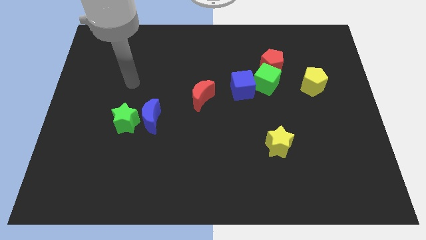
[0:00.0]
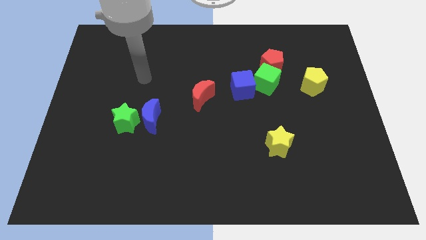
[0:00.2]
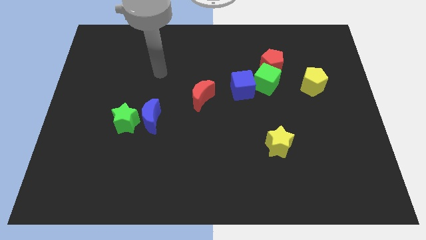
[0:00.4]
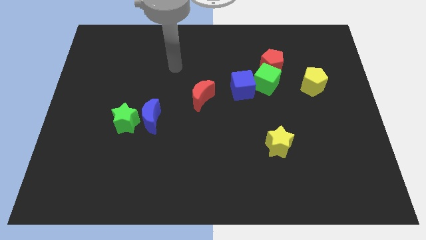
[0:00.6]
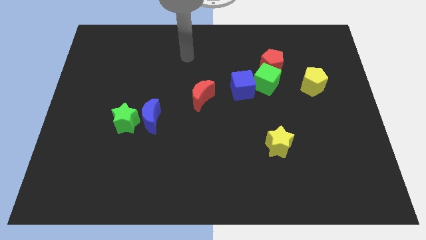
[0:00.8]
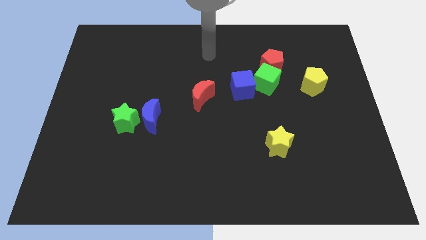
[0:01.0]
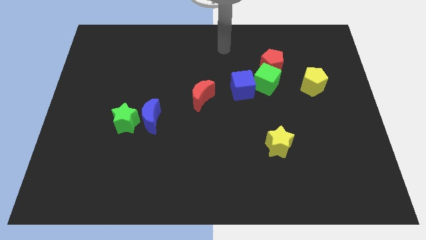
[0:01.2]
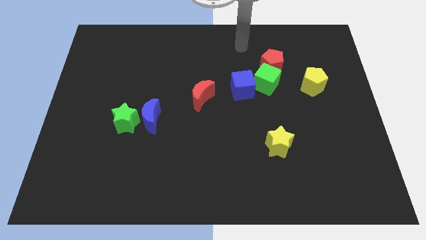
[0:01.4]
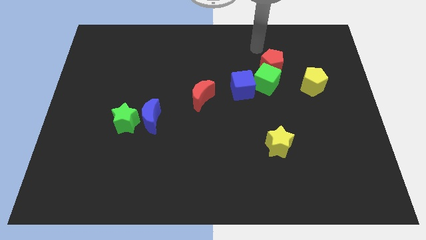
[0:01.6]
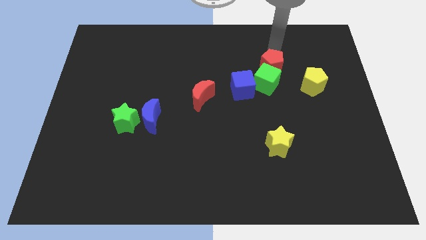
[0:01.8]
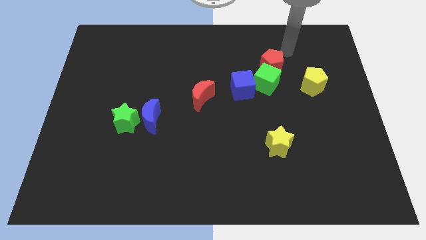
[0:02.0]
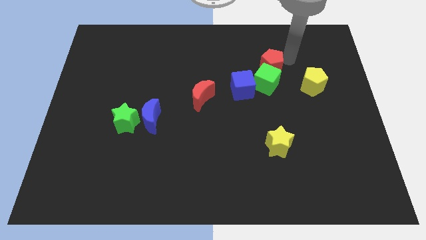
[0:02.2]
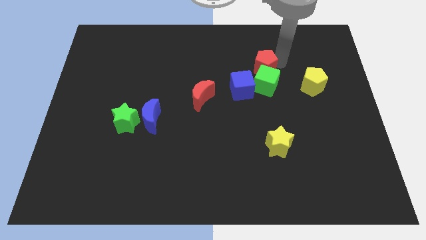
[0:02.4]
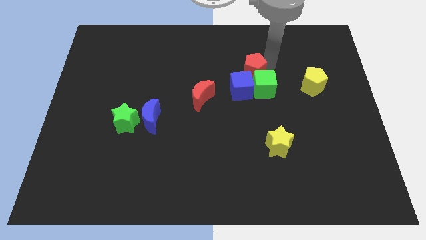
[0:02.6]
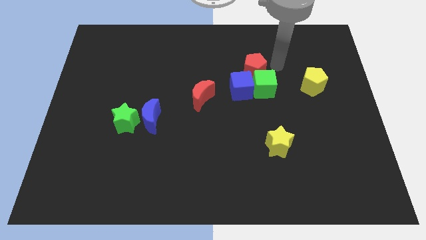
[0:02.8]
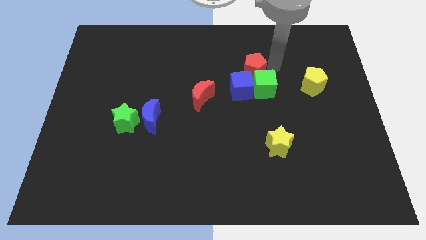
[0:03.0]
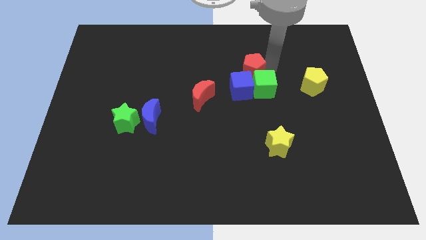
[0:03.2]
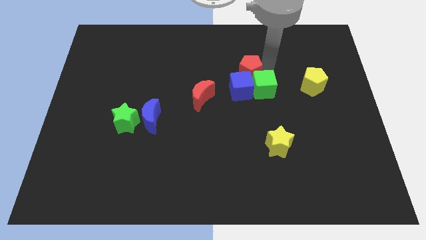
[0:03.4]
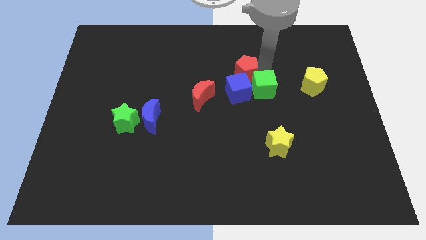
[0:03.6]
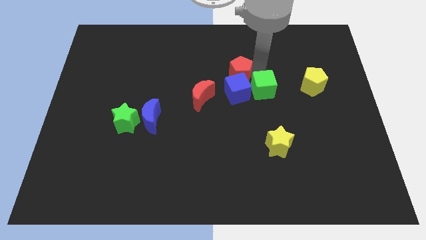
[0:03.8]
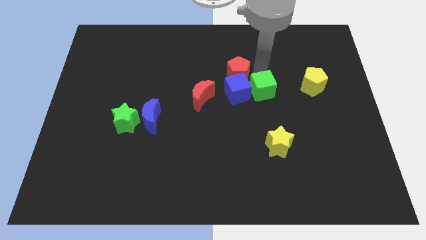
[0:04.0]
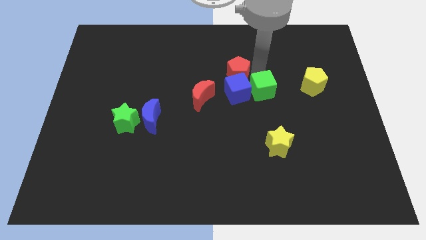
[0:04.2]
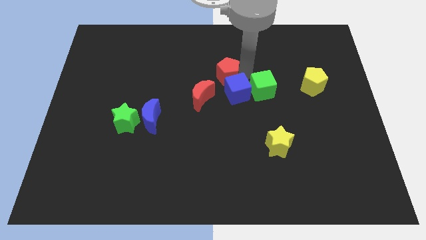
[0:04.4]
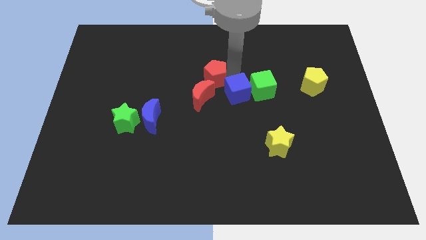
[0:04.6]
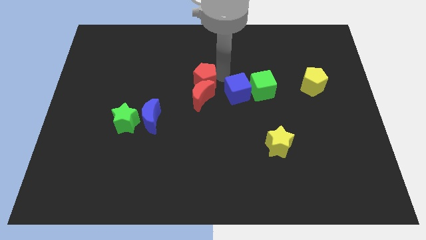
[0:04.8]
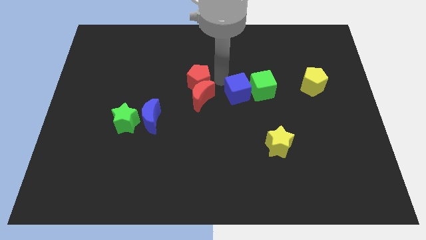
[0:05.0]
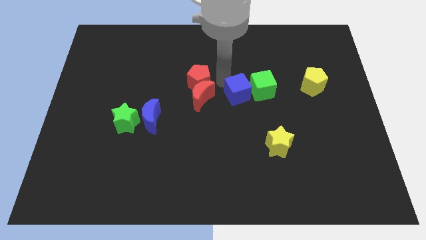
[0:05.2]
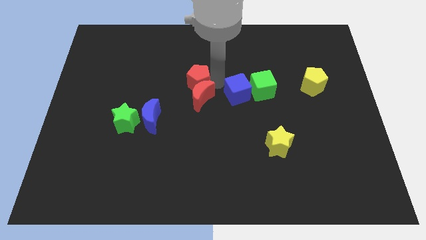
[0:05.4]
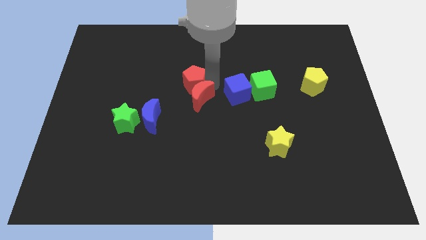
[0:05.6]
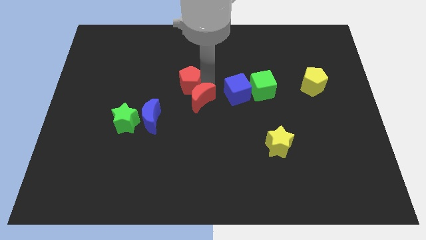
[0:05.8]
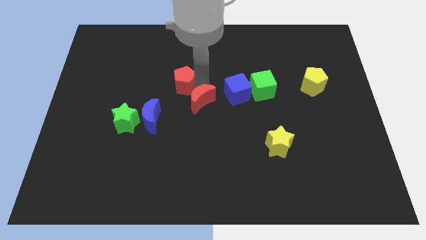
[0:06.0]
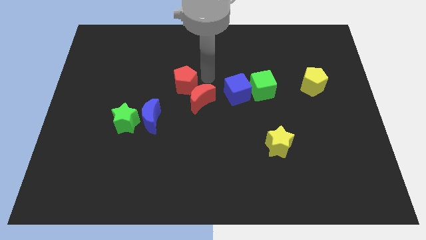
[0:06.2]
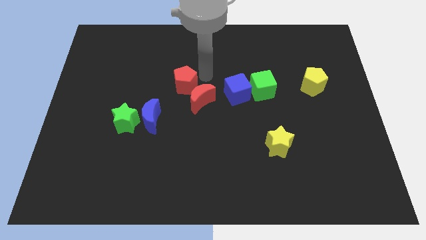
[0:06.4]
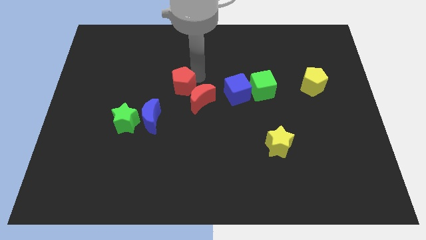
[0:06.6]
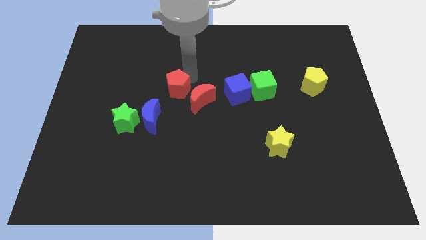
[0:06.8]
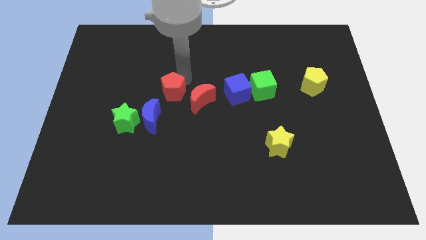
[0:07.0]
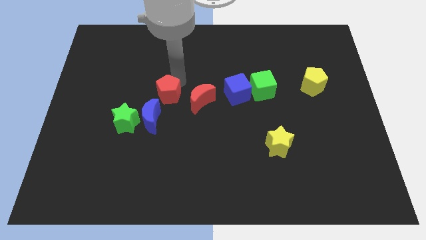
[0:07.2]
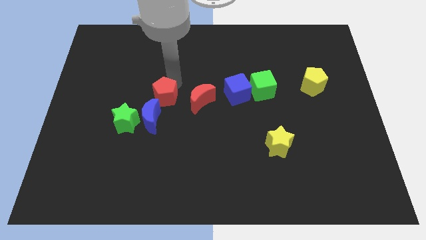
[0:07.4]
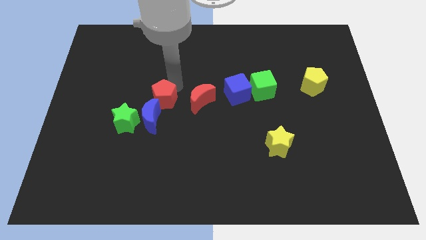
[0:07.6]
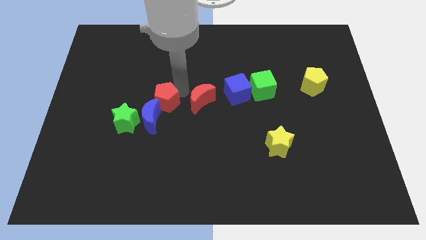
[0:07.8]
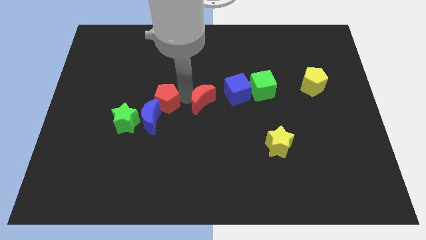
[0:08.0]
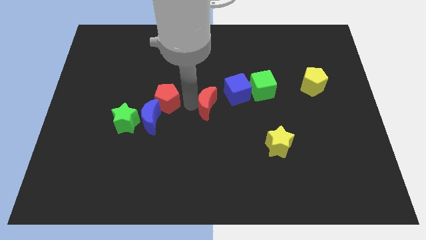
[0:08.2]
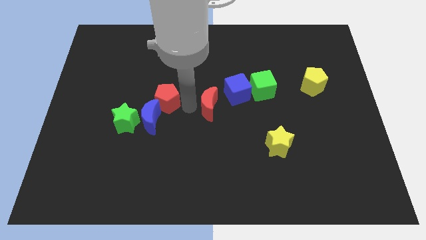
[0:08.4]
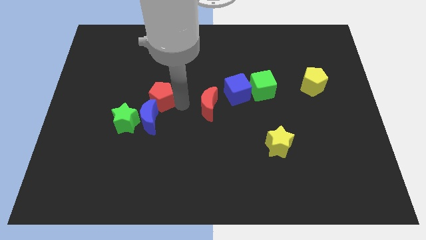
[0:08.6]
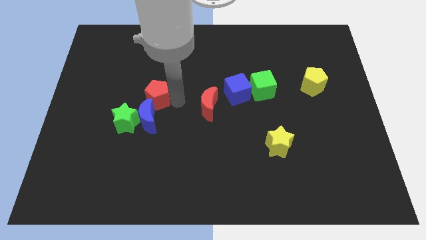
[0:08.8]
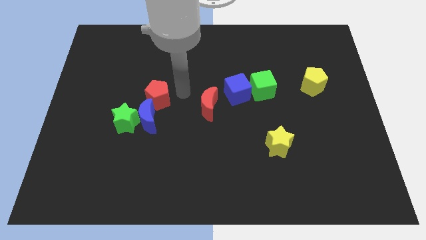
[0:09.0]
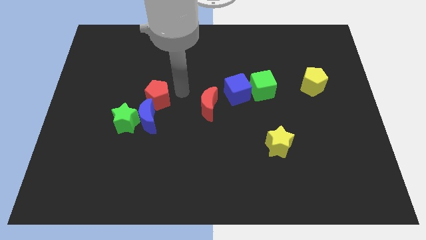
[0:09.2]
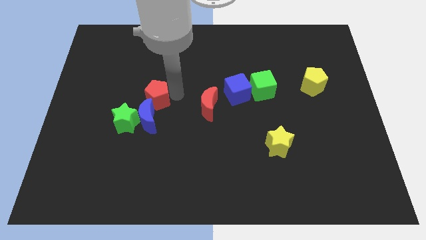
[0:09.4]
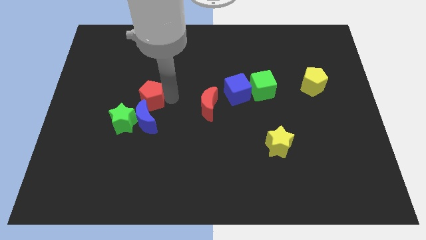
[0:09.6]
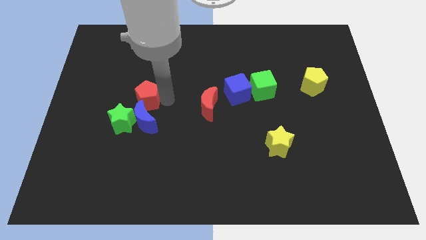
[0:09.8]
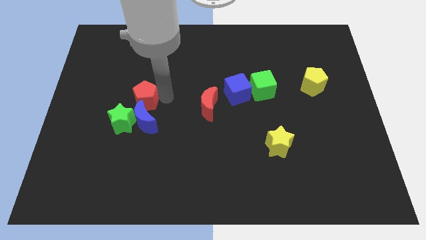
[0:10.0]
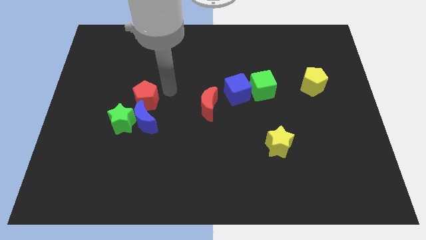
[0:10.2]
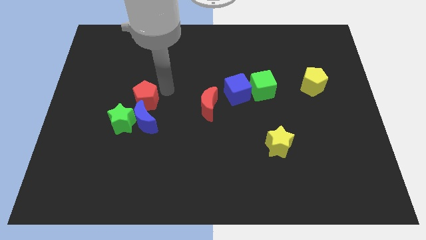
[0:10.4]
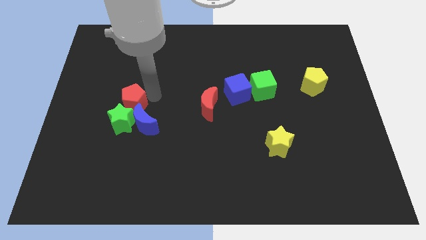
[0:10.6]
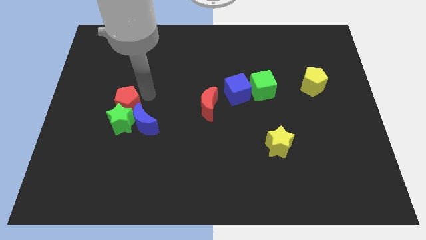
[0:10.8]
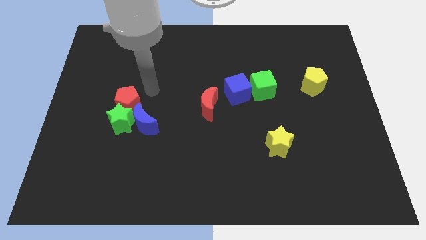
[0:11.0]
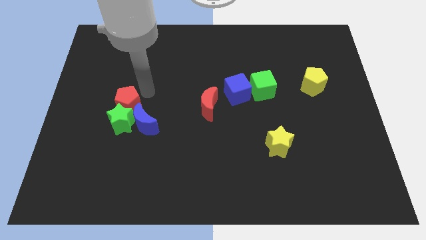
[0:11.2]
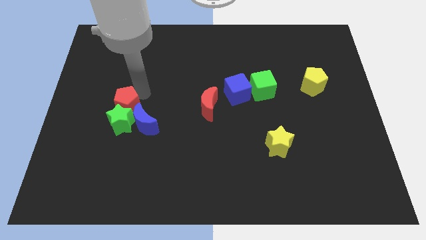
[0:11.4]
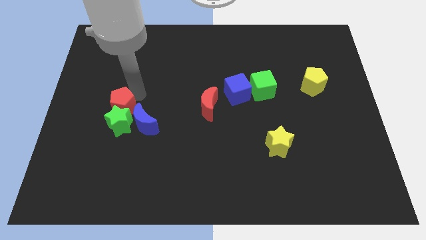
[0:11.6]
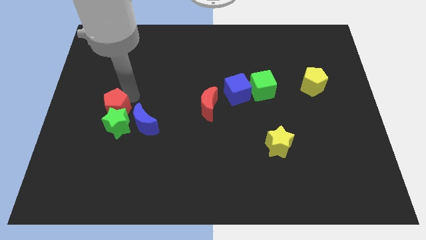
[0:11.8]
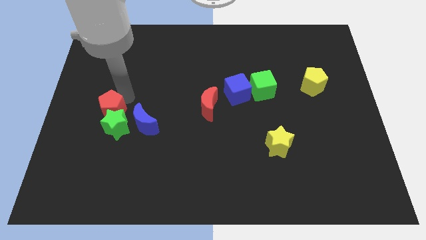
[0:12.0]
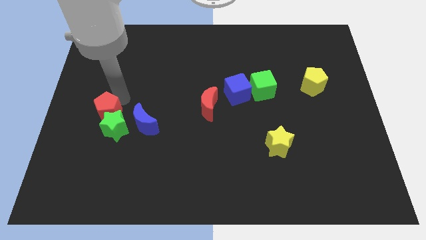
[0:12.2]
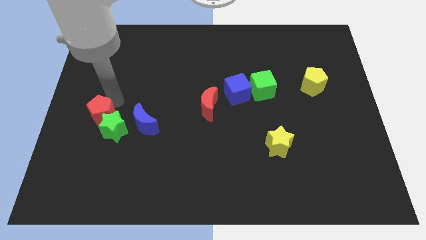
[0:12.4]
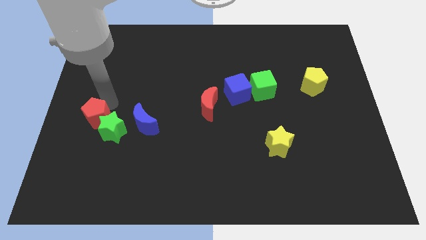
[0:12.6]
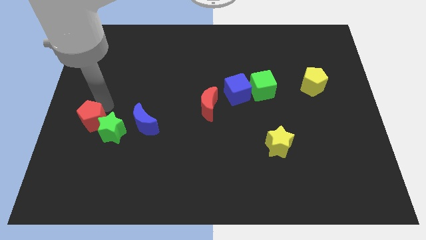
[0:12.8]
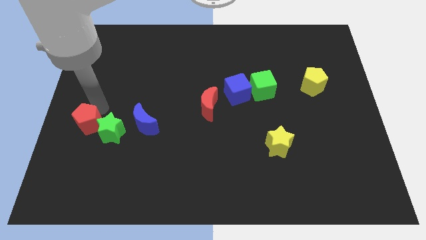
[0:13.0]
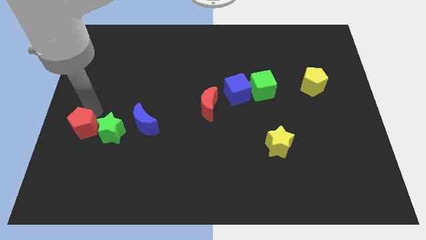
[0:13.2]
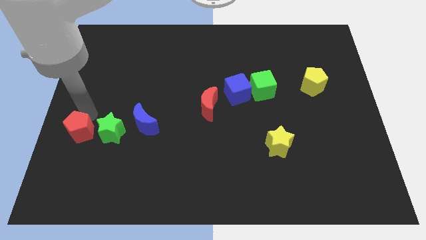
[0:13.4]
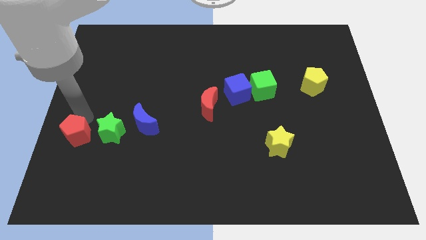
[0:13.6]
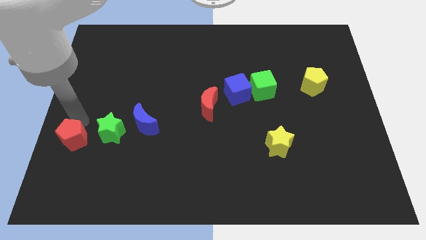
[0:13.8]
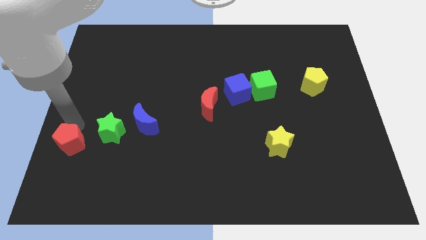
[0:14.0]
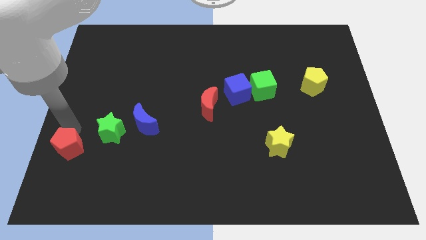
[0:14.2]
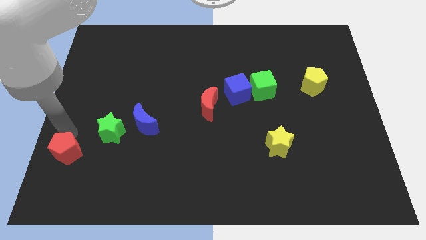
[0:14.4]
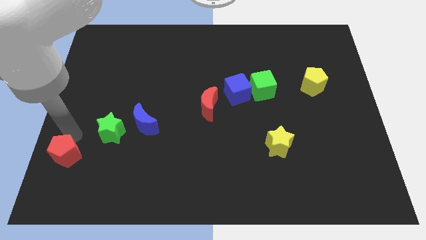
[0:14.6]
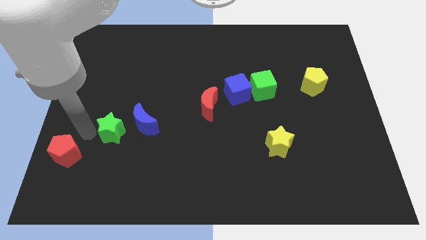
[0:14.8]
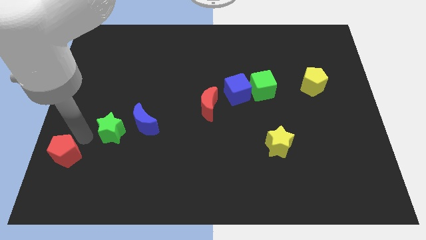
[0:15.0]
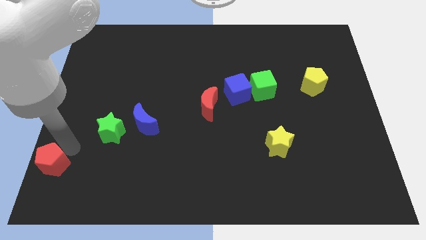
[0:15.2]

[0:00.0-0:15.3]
push the red pentagon to the bottom left of the board

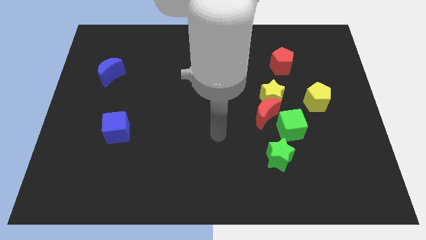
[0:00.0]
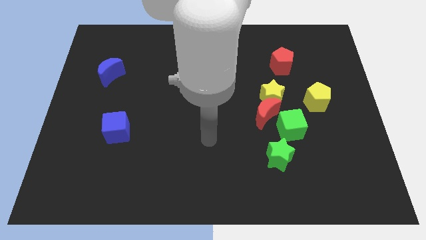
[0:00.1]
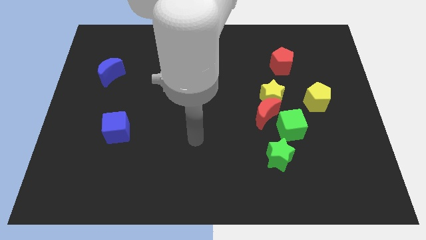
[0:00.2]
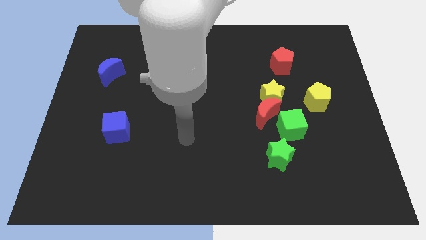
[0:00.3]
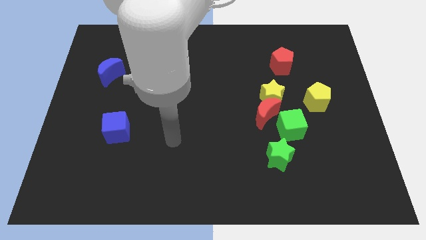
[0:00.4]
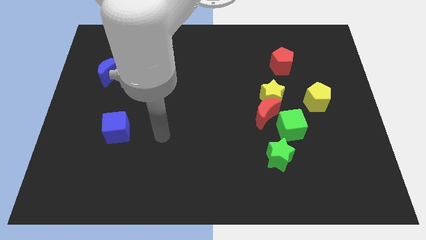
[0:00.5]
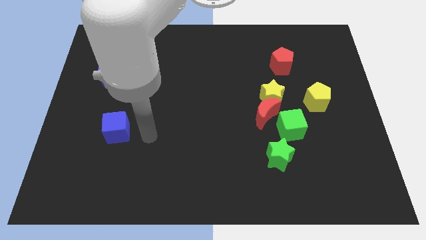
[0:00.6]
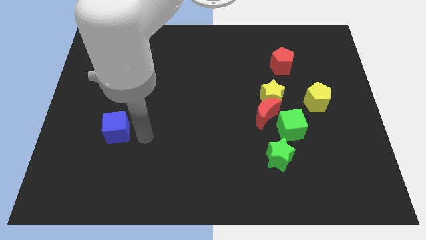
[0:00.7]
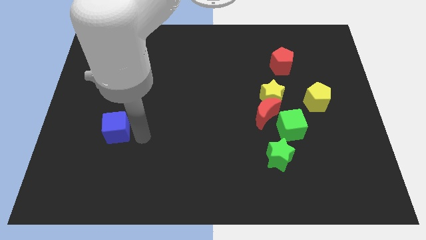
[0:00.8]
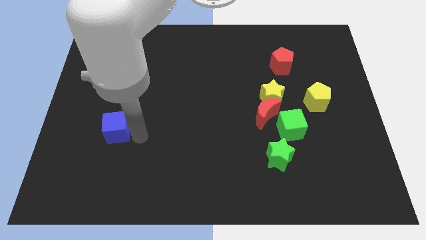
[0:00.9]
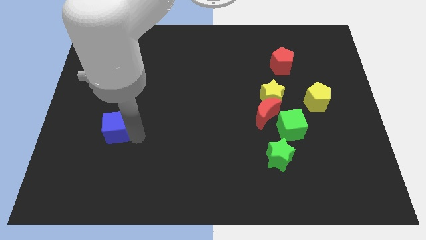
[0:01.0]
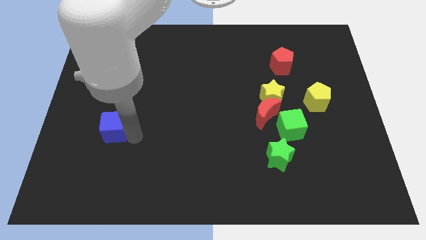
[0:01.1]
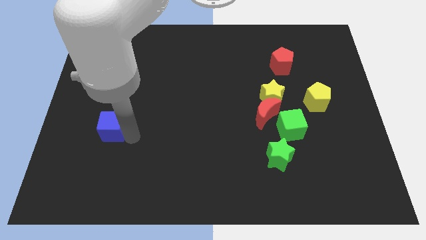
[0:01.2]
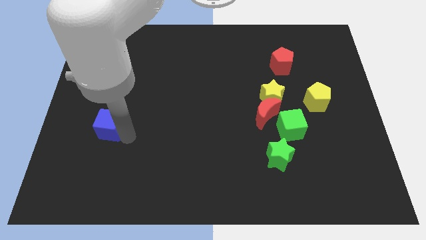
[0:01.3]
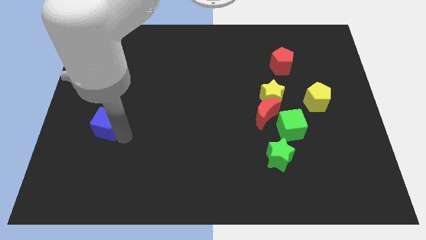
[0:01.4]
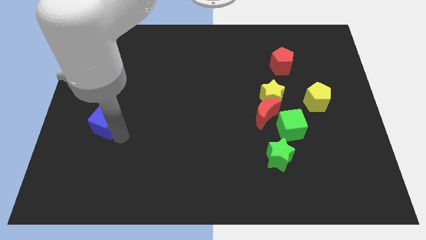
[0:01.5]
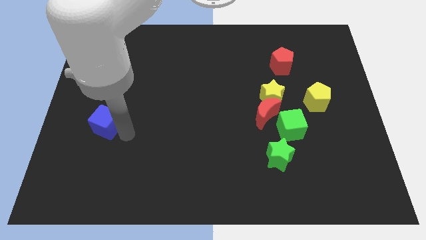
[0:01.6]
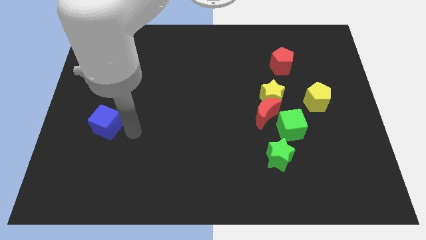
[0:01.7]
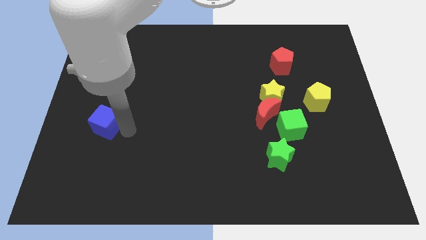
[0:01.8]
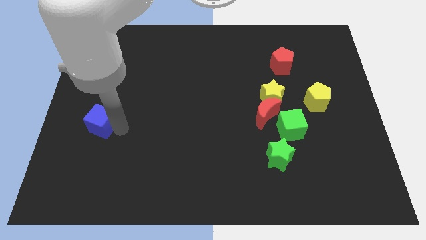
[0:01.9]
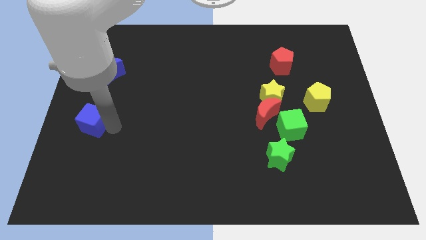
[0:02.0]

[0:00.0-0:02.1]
move the blue cube to the left side of the board
